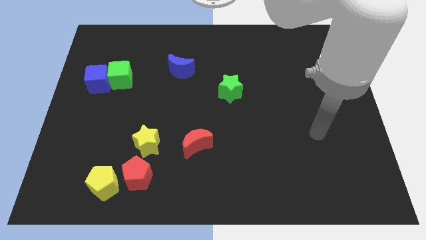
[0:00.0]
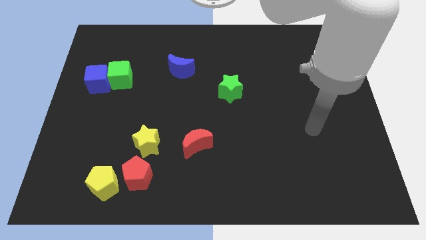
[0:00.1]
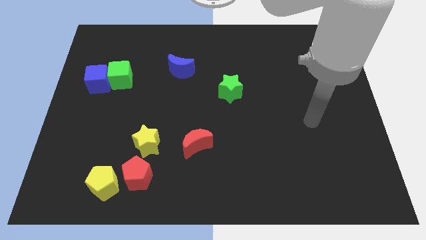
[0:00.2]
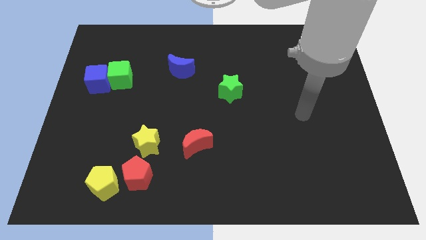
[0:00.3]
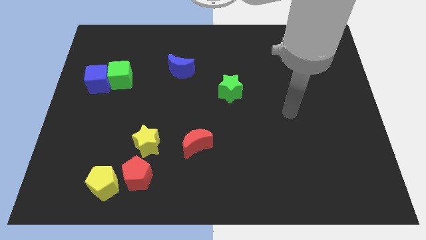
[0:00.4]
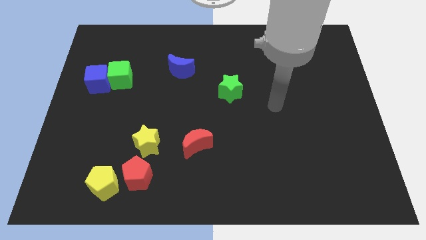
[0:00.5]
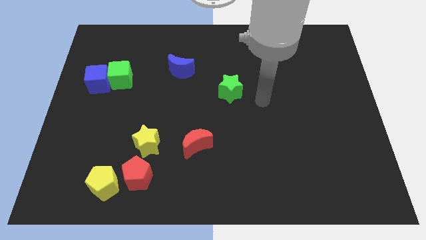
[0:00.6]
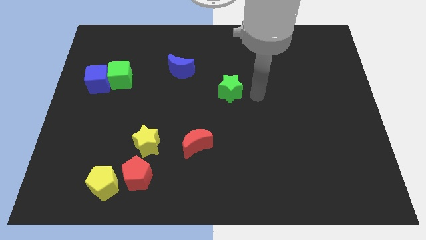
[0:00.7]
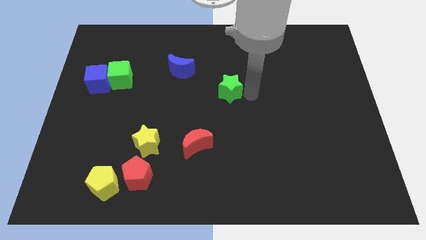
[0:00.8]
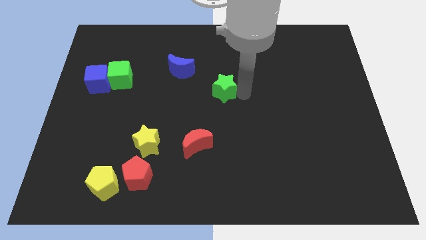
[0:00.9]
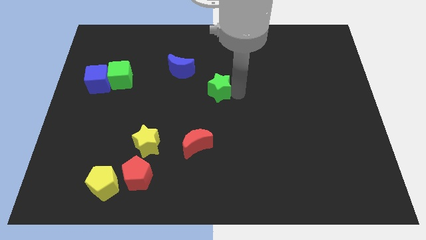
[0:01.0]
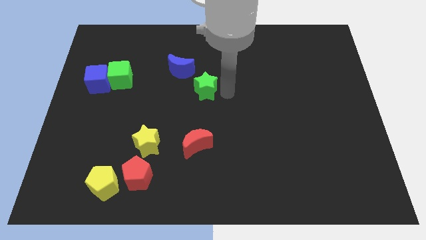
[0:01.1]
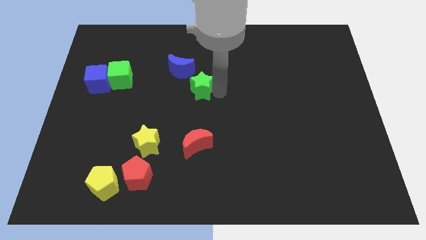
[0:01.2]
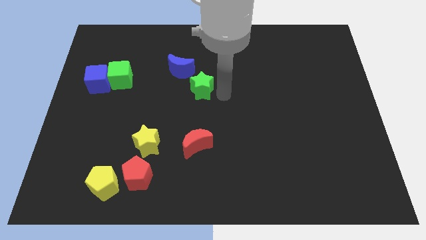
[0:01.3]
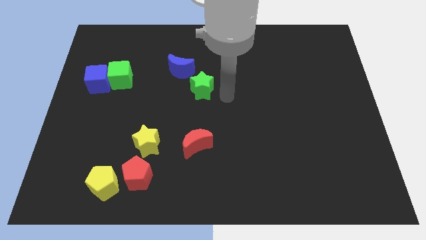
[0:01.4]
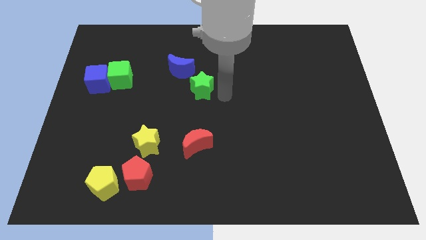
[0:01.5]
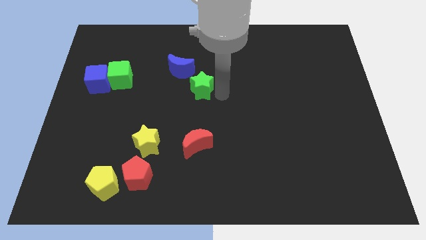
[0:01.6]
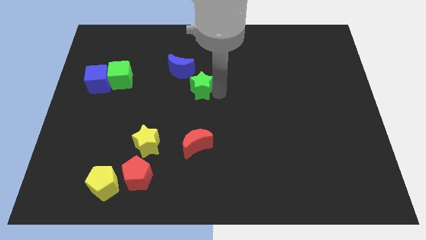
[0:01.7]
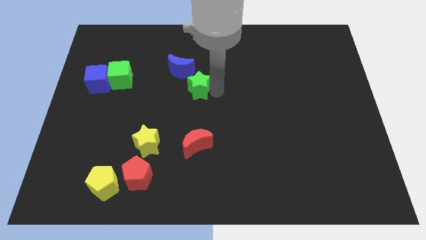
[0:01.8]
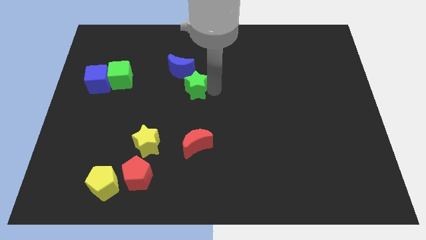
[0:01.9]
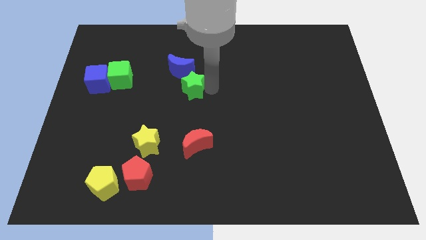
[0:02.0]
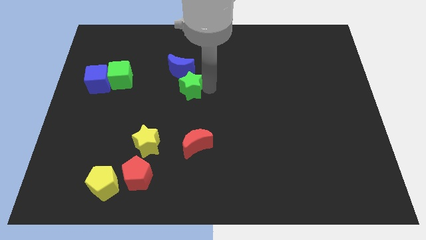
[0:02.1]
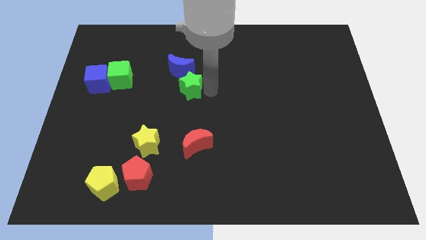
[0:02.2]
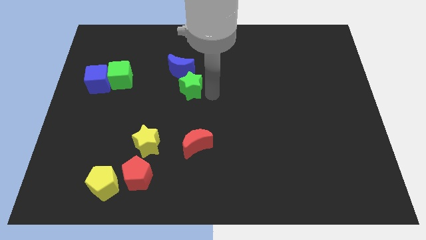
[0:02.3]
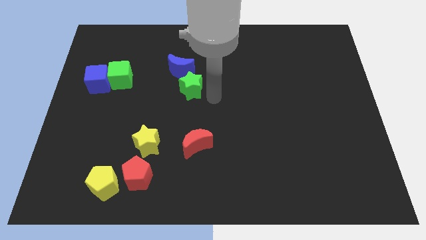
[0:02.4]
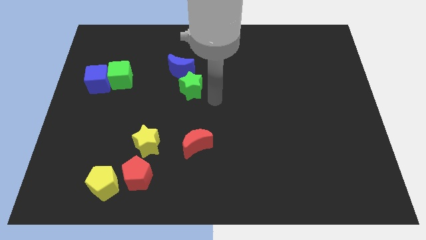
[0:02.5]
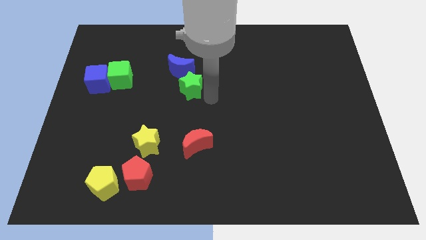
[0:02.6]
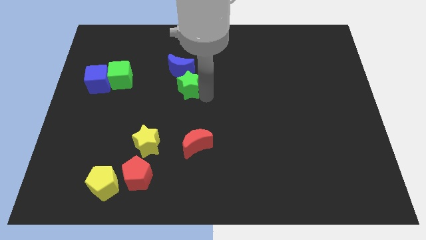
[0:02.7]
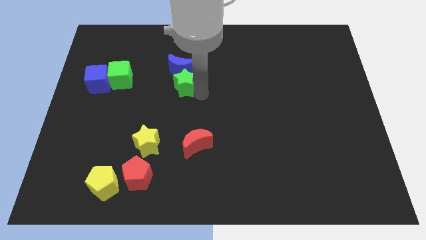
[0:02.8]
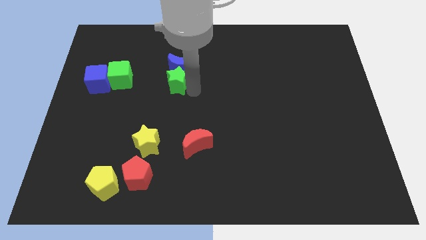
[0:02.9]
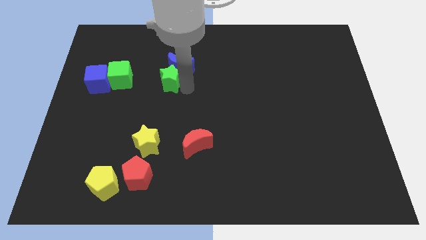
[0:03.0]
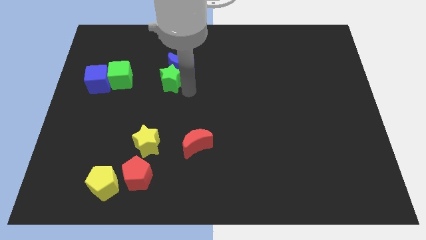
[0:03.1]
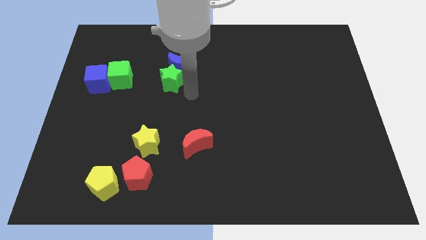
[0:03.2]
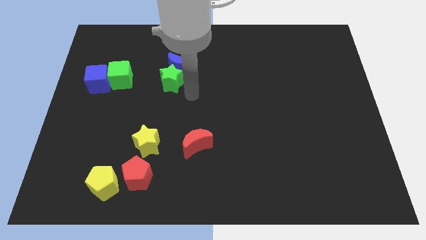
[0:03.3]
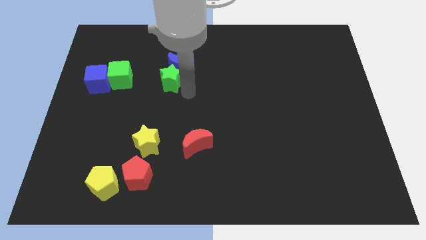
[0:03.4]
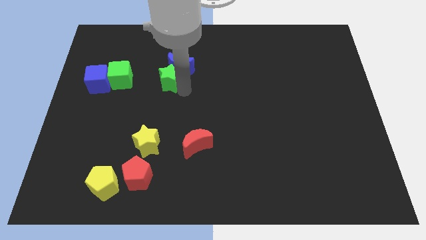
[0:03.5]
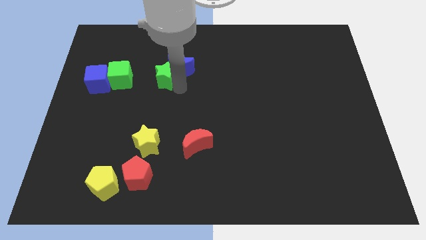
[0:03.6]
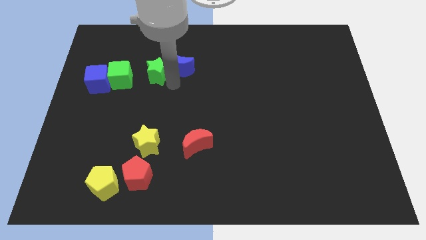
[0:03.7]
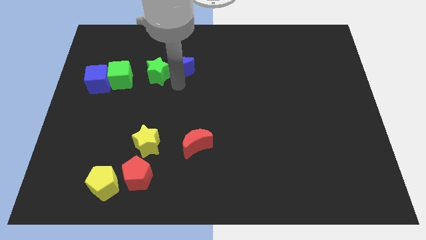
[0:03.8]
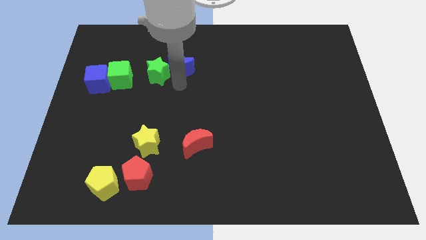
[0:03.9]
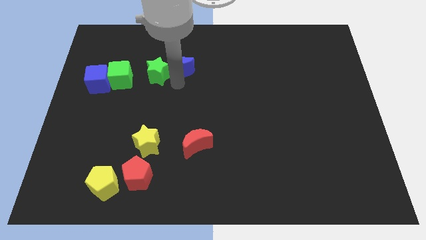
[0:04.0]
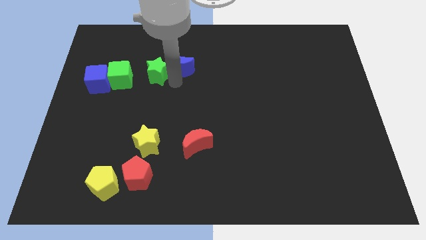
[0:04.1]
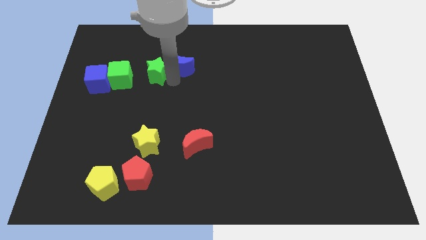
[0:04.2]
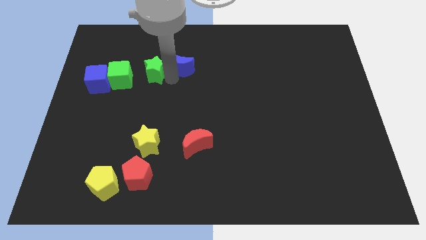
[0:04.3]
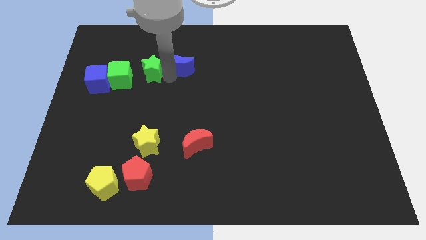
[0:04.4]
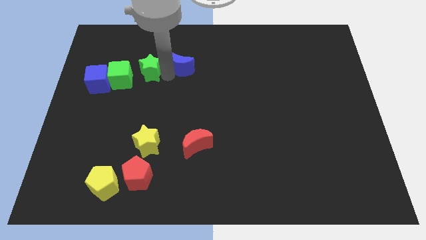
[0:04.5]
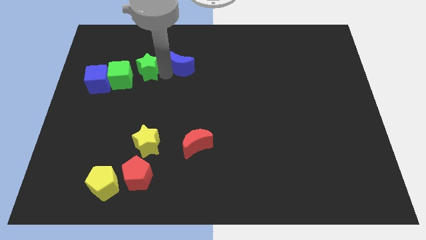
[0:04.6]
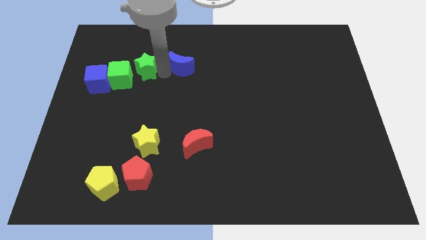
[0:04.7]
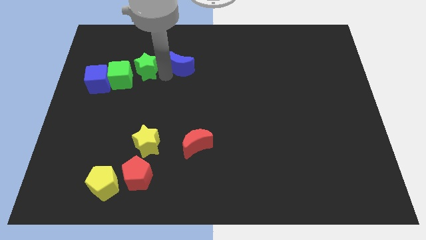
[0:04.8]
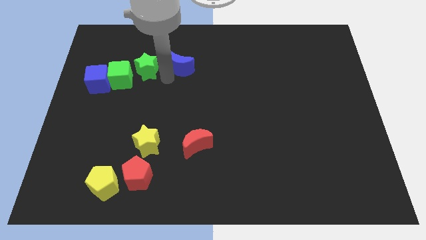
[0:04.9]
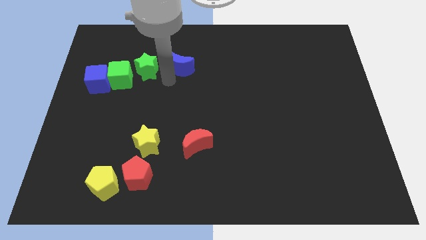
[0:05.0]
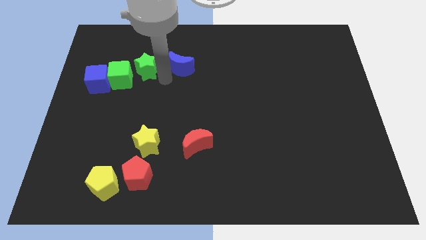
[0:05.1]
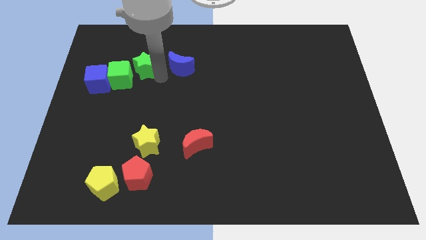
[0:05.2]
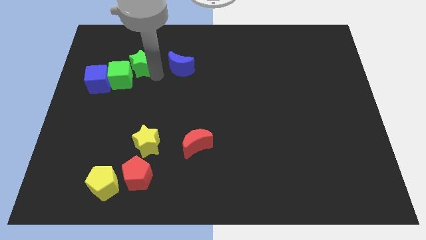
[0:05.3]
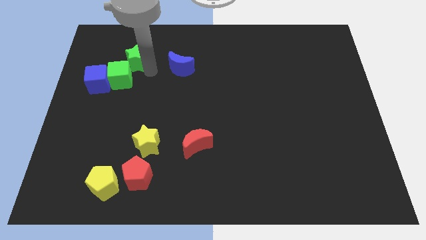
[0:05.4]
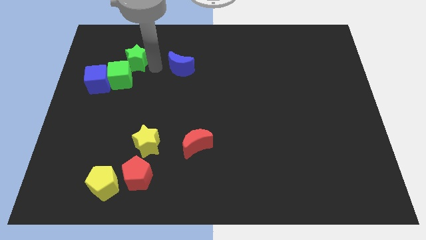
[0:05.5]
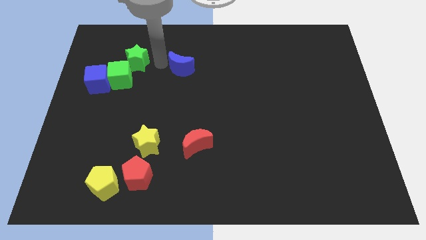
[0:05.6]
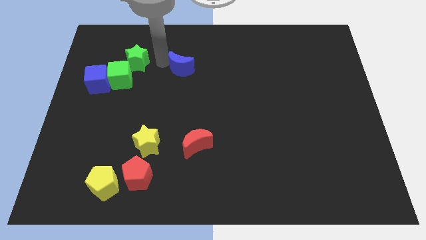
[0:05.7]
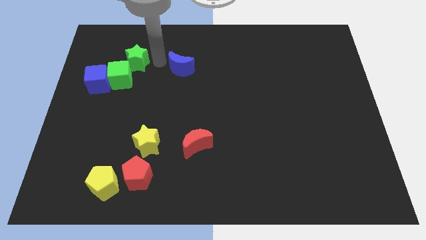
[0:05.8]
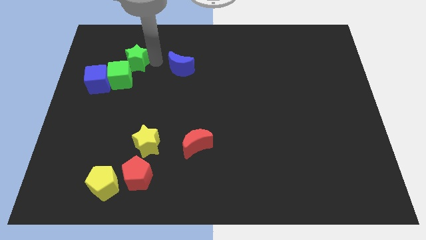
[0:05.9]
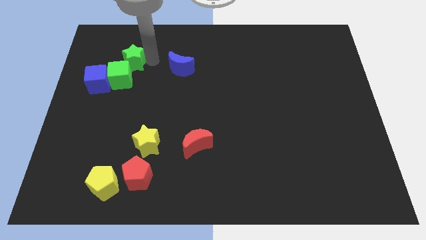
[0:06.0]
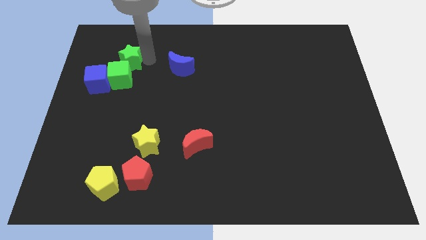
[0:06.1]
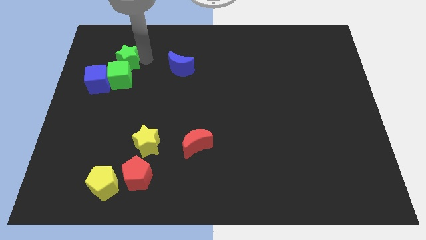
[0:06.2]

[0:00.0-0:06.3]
move the green star to the top left side of the green cube

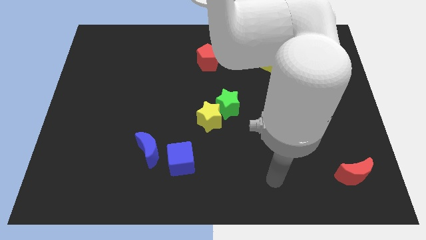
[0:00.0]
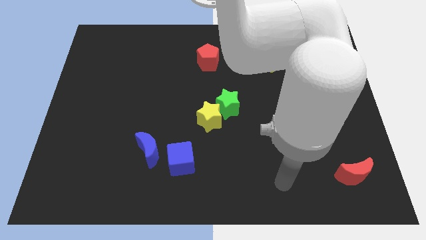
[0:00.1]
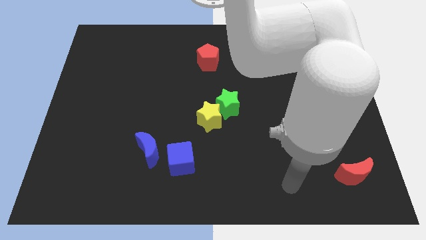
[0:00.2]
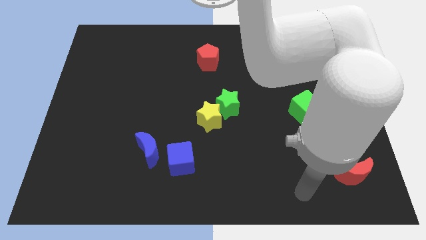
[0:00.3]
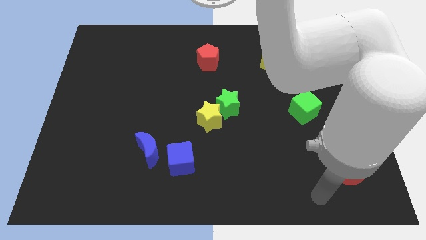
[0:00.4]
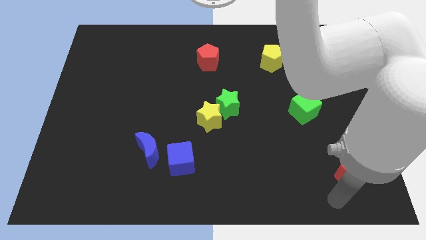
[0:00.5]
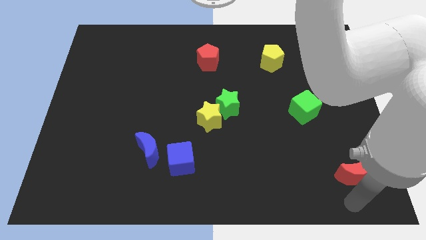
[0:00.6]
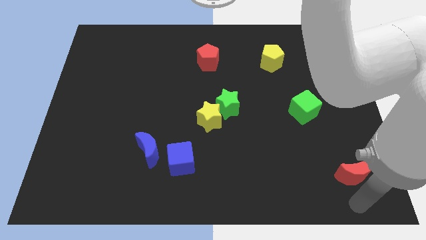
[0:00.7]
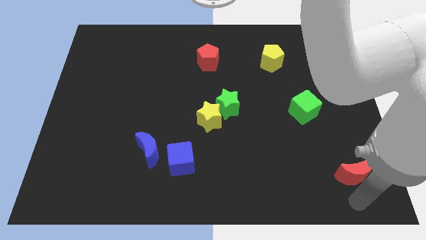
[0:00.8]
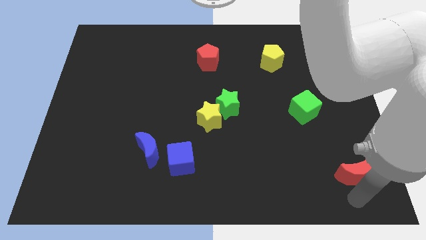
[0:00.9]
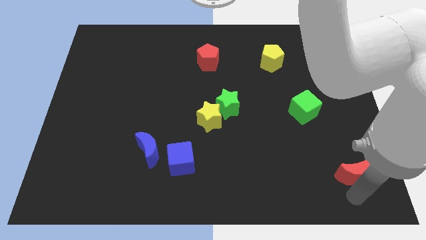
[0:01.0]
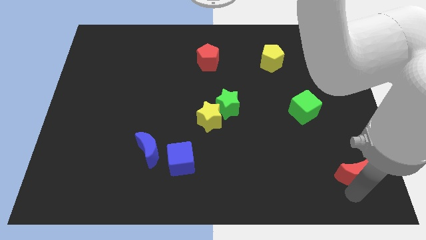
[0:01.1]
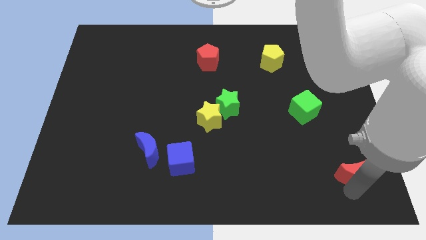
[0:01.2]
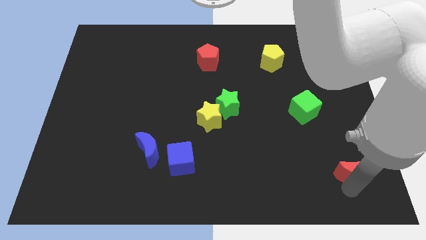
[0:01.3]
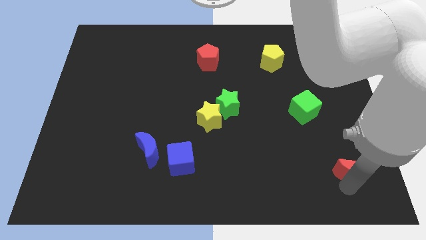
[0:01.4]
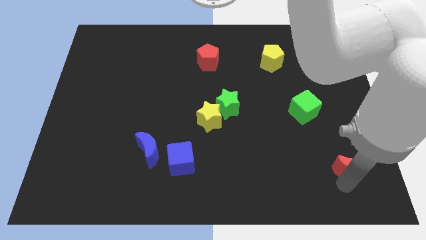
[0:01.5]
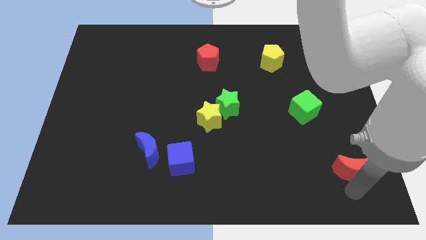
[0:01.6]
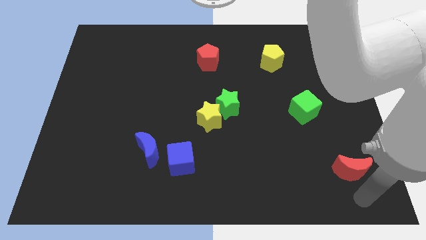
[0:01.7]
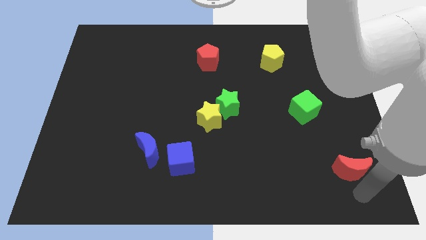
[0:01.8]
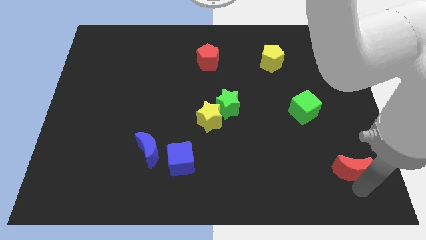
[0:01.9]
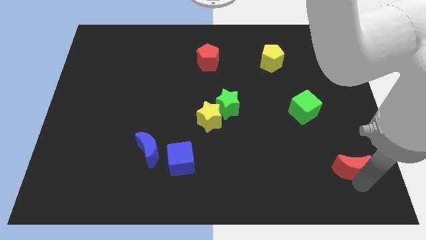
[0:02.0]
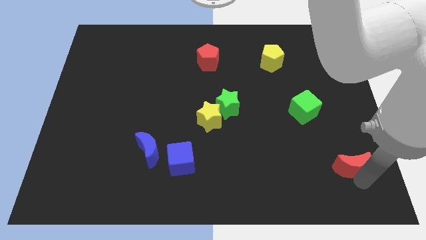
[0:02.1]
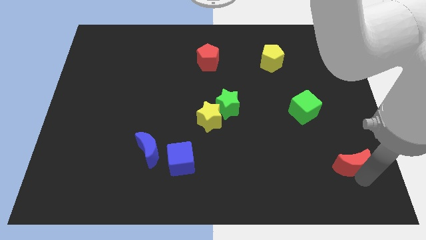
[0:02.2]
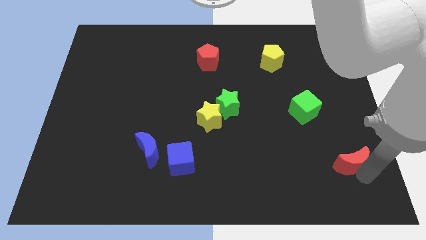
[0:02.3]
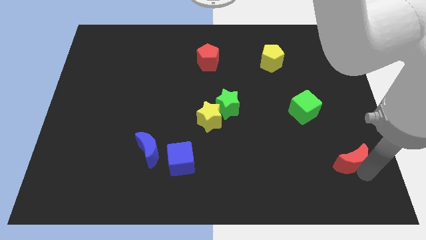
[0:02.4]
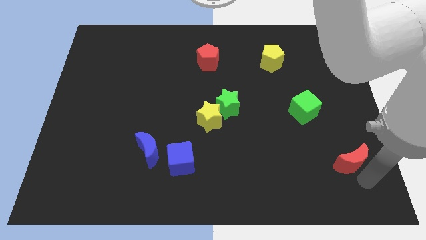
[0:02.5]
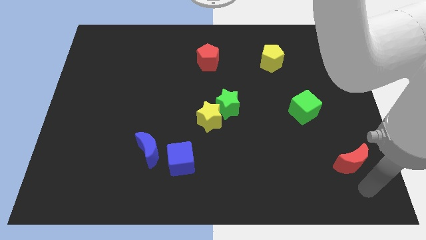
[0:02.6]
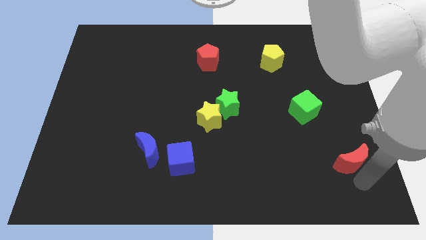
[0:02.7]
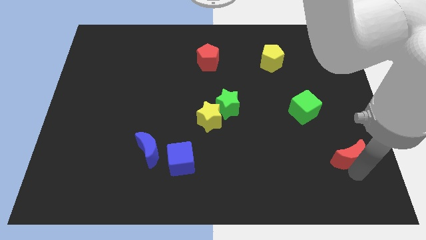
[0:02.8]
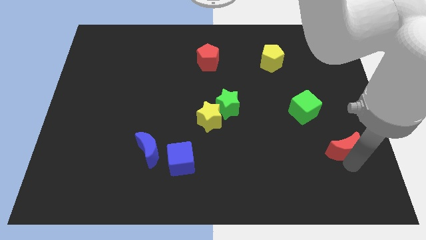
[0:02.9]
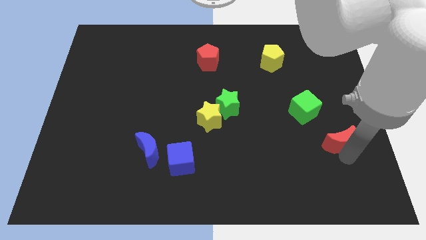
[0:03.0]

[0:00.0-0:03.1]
slide the red moon to the bottom right of the green cube
